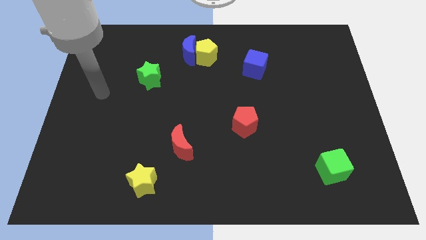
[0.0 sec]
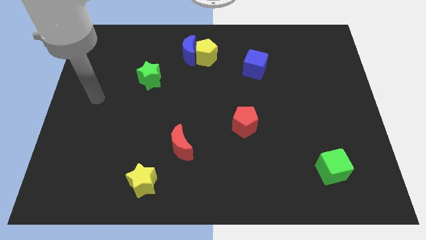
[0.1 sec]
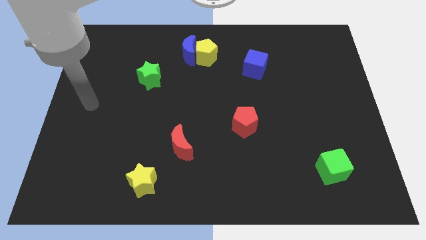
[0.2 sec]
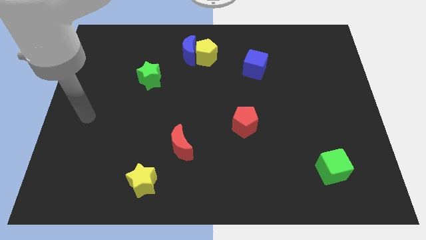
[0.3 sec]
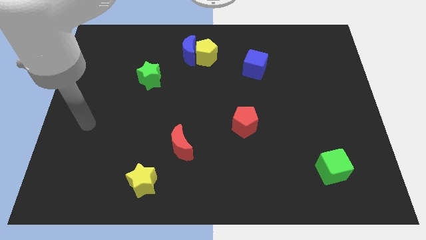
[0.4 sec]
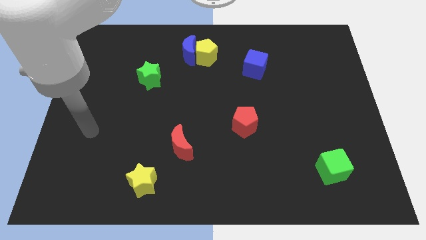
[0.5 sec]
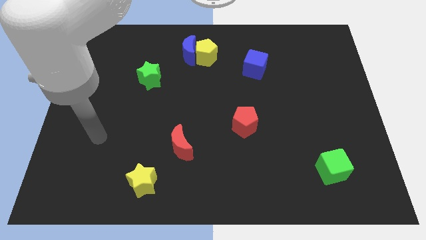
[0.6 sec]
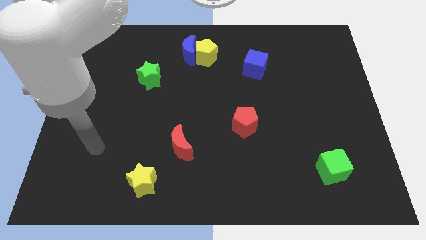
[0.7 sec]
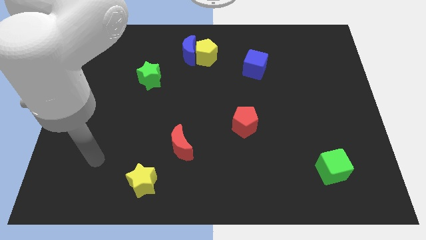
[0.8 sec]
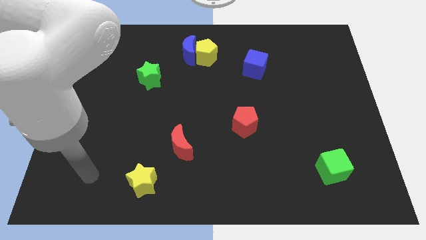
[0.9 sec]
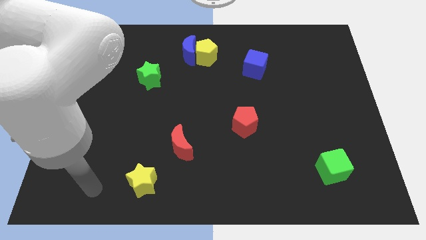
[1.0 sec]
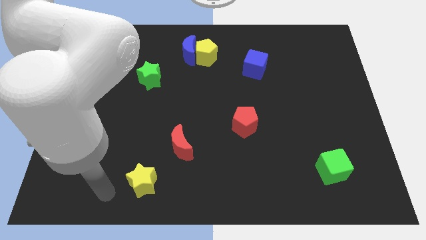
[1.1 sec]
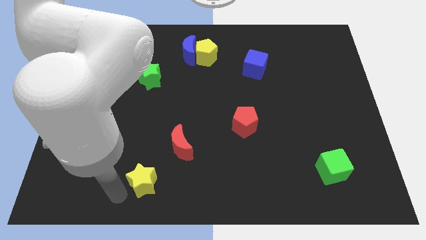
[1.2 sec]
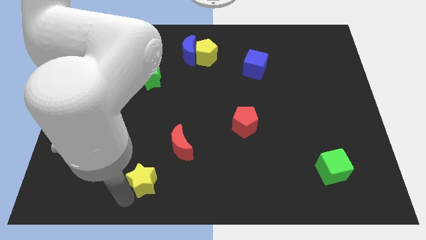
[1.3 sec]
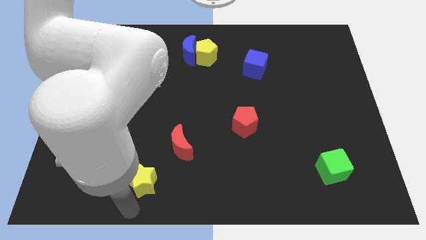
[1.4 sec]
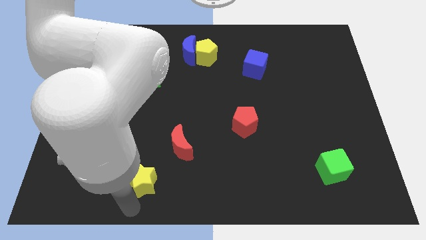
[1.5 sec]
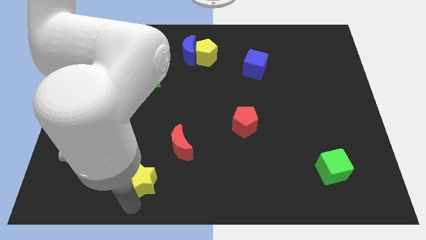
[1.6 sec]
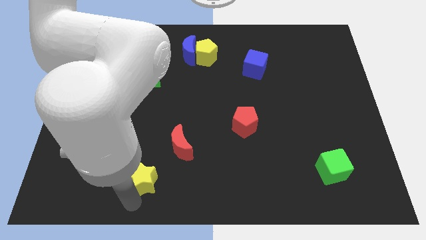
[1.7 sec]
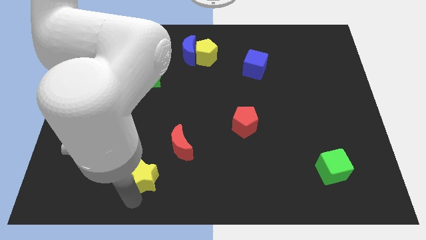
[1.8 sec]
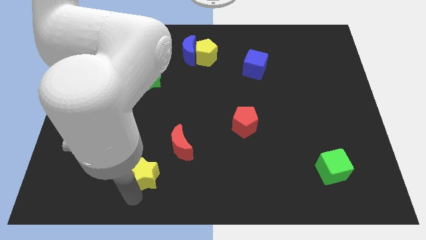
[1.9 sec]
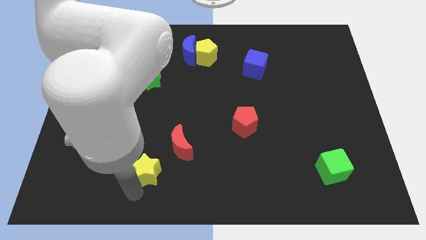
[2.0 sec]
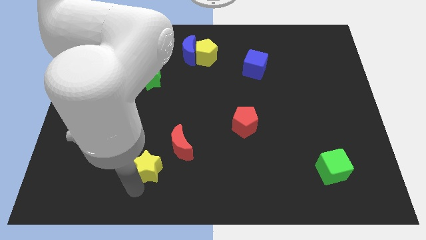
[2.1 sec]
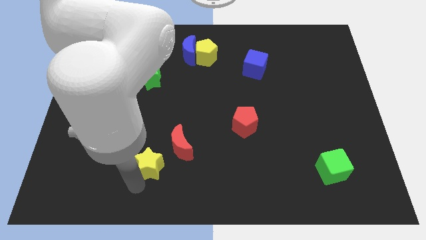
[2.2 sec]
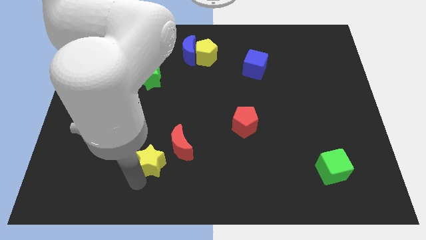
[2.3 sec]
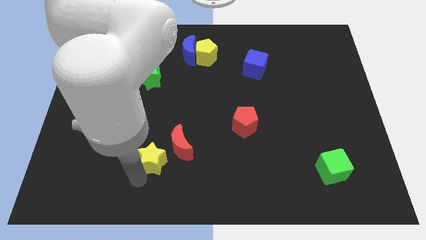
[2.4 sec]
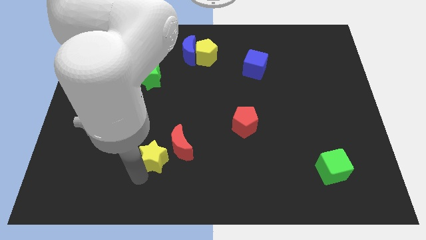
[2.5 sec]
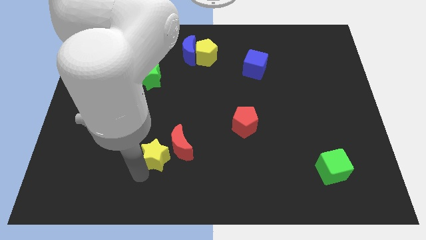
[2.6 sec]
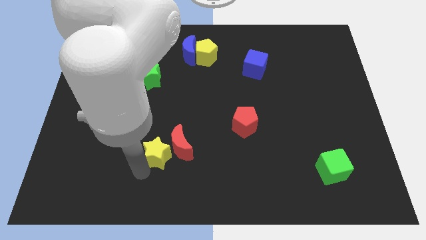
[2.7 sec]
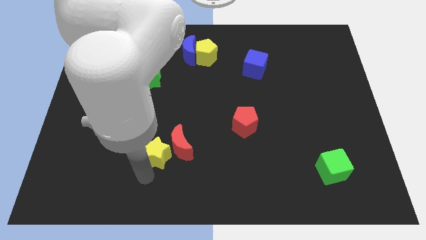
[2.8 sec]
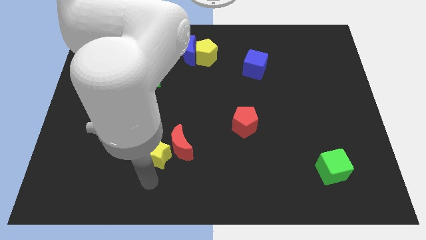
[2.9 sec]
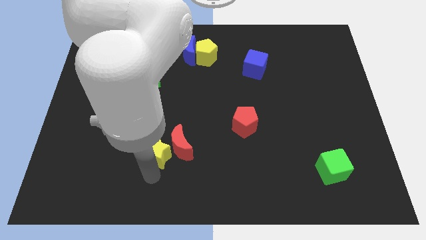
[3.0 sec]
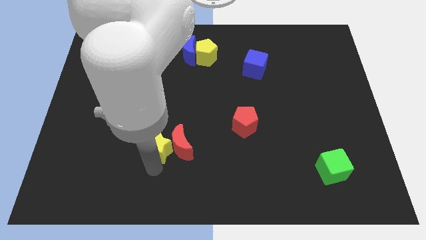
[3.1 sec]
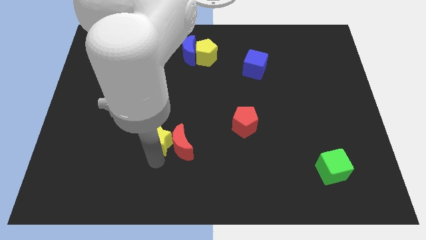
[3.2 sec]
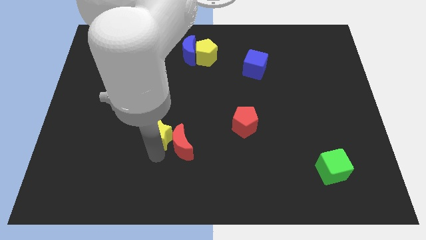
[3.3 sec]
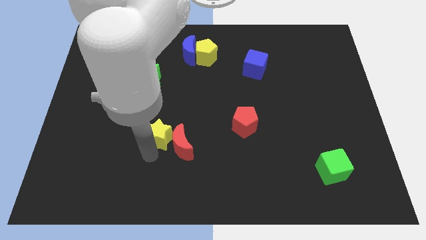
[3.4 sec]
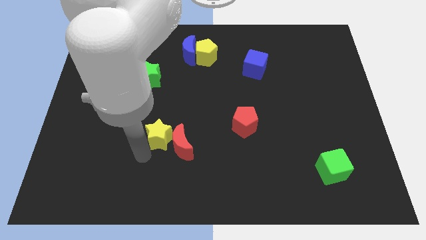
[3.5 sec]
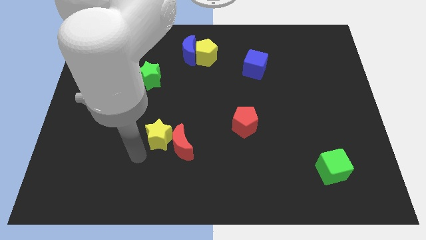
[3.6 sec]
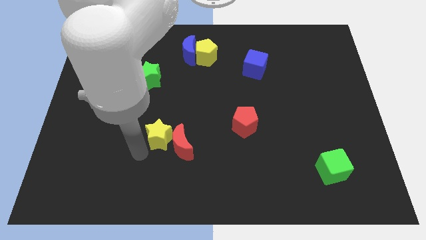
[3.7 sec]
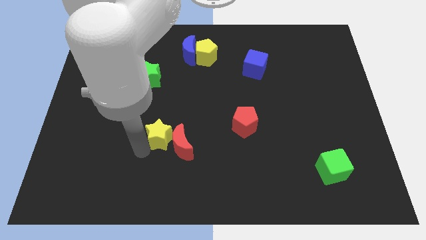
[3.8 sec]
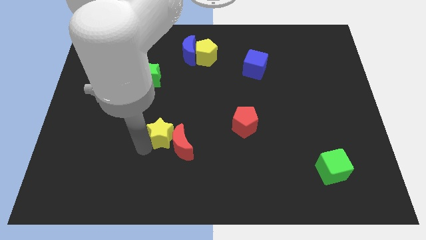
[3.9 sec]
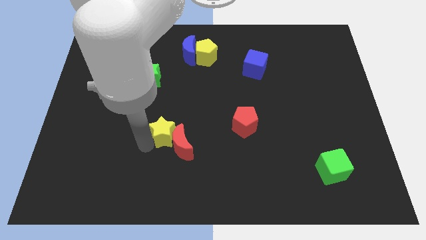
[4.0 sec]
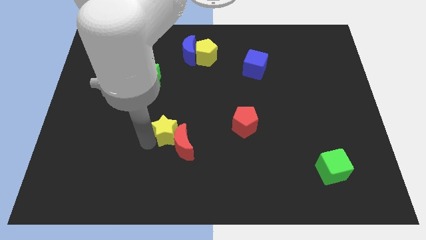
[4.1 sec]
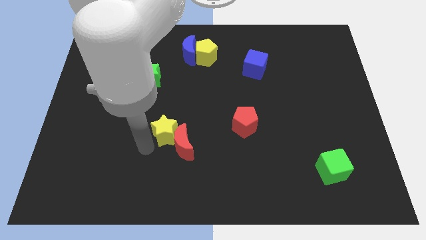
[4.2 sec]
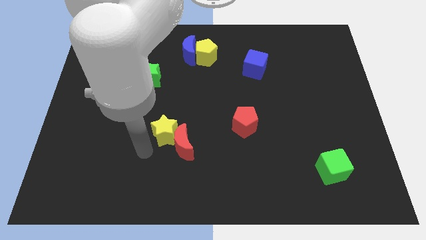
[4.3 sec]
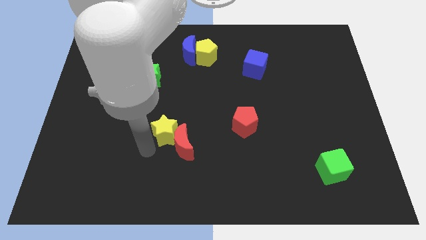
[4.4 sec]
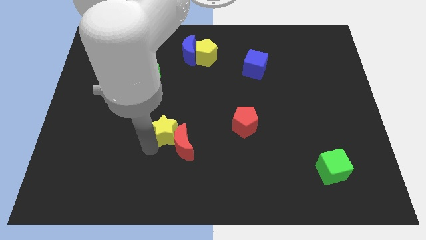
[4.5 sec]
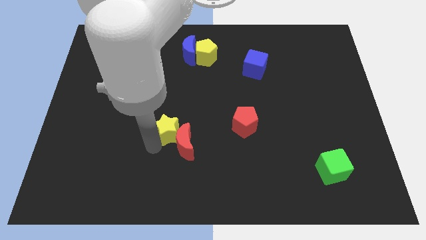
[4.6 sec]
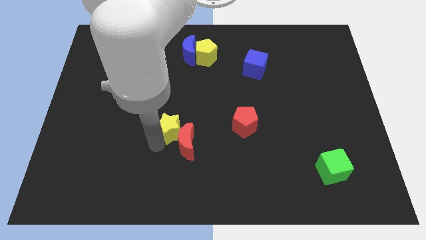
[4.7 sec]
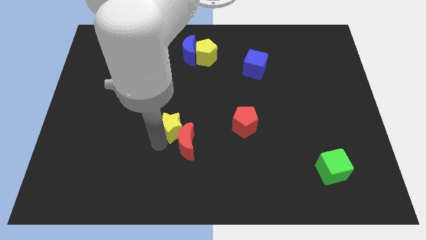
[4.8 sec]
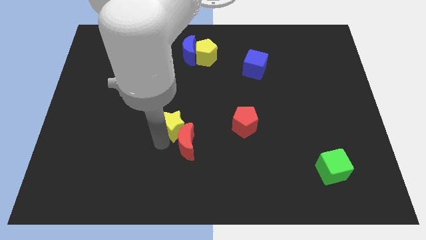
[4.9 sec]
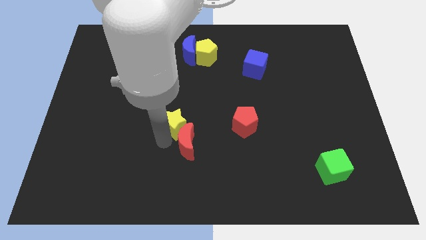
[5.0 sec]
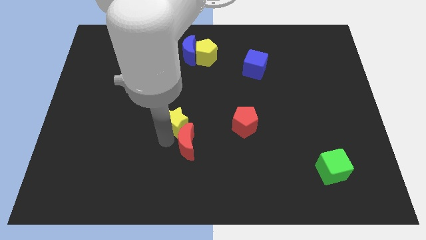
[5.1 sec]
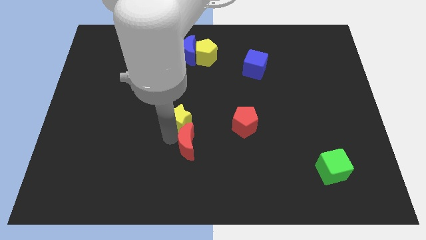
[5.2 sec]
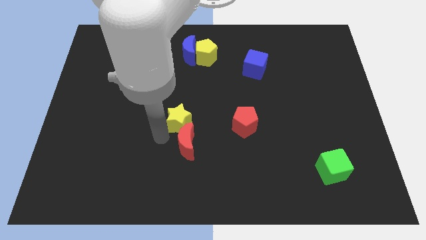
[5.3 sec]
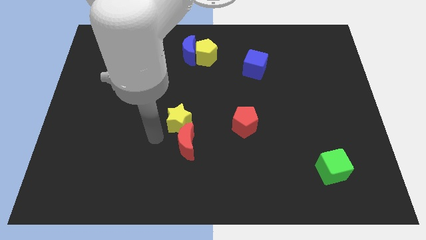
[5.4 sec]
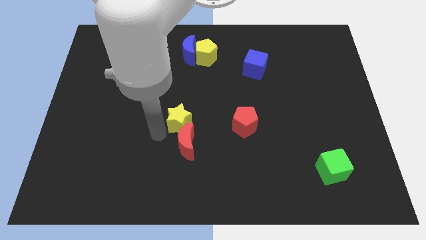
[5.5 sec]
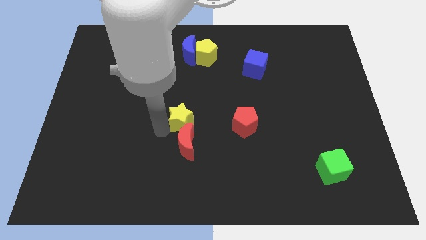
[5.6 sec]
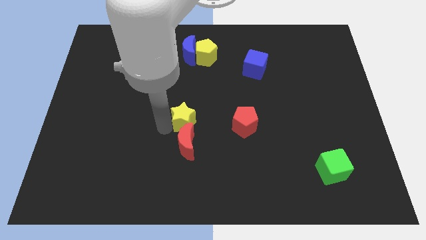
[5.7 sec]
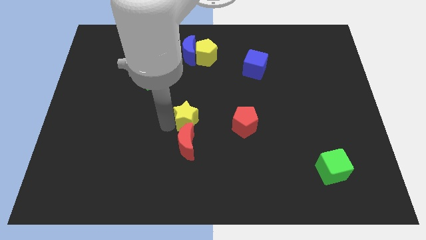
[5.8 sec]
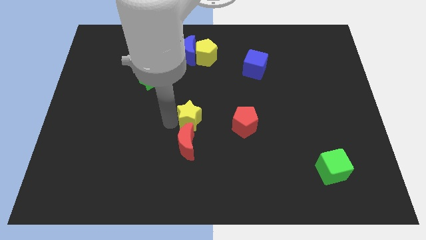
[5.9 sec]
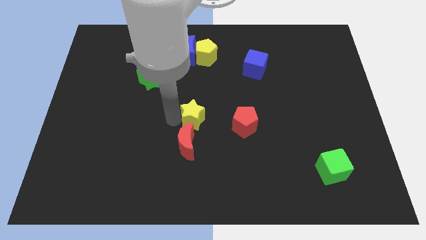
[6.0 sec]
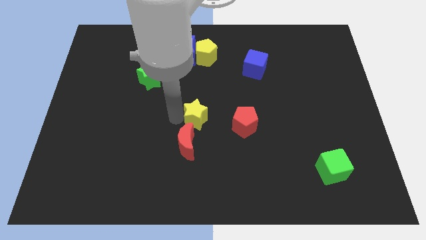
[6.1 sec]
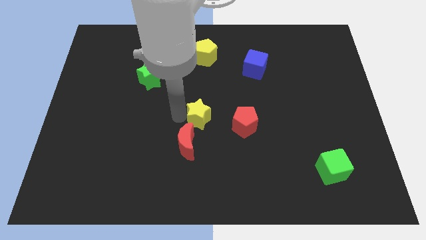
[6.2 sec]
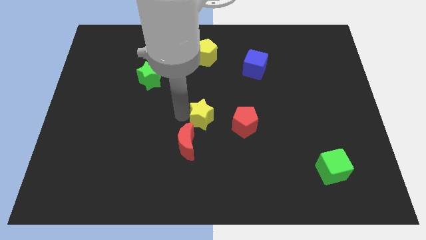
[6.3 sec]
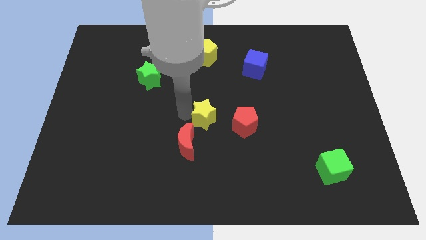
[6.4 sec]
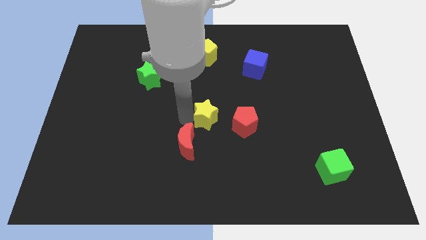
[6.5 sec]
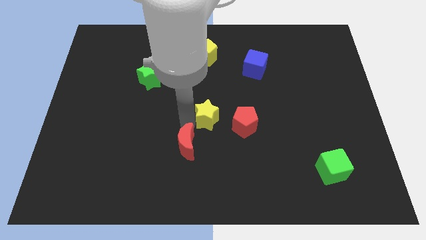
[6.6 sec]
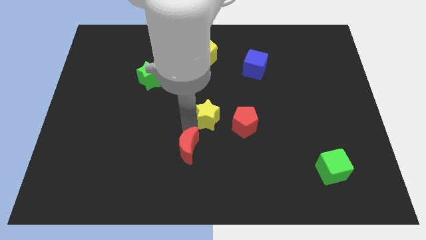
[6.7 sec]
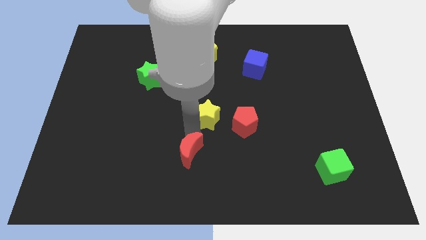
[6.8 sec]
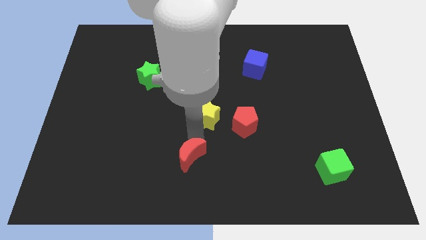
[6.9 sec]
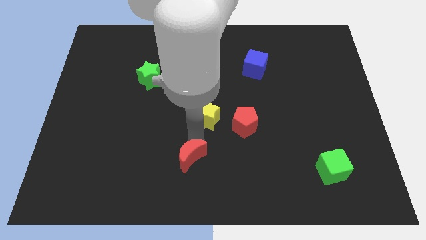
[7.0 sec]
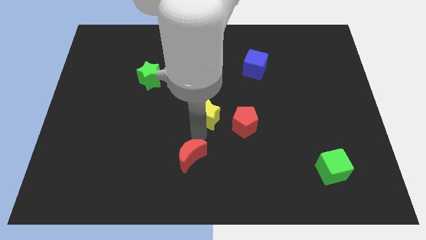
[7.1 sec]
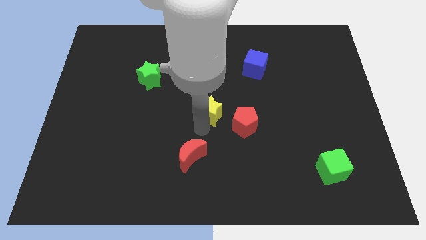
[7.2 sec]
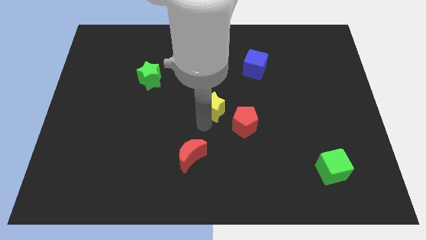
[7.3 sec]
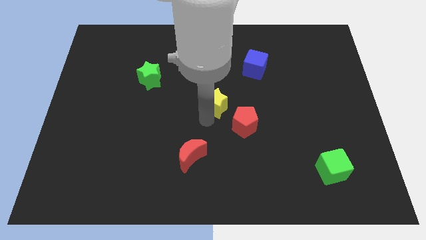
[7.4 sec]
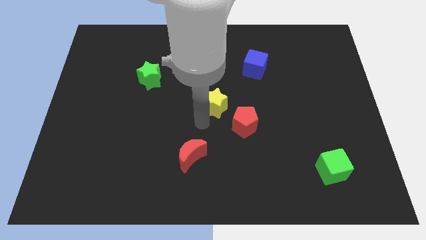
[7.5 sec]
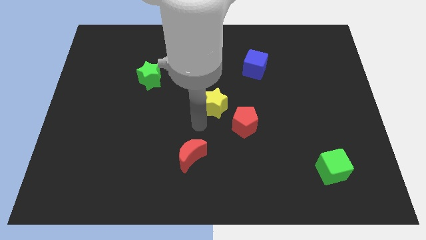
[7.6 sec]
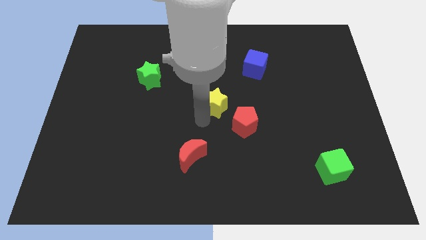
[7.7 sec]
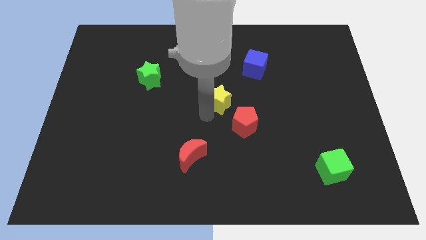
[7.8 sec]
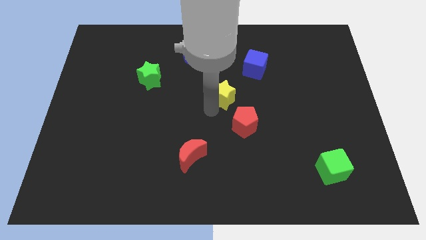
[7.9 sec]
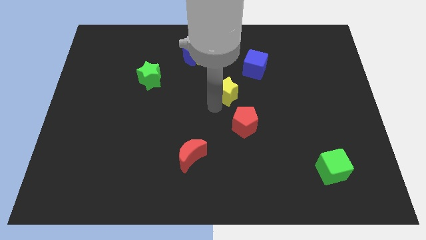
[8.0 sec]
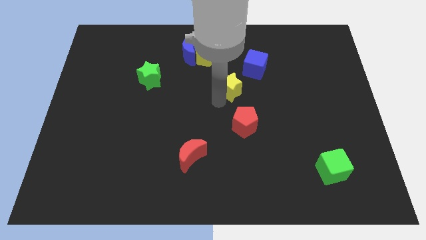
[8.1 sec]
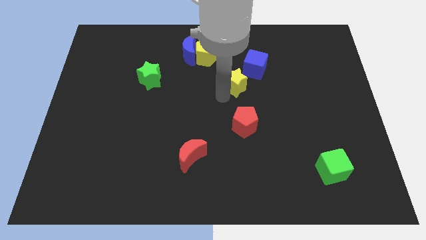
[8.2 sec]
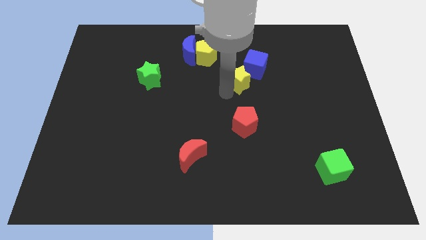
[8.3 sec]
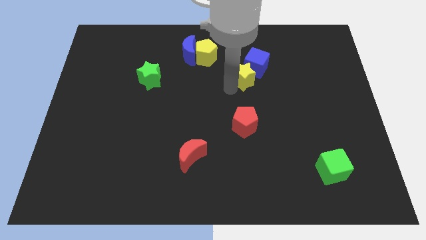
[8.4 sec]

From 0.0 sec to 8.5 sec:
push the yellow star next to the blue cube
